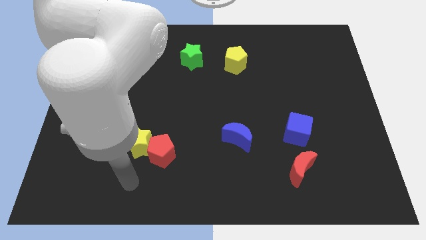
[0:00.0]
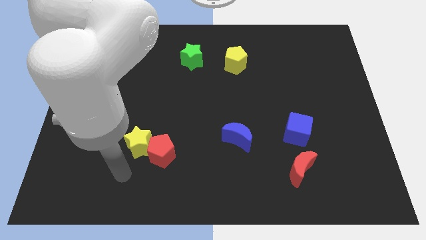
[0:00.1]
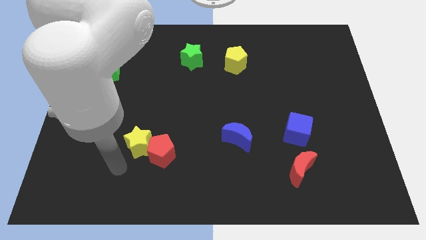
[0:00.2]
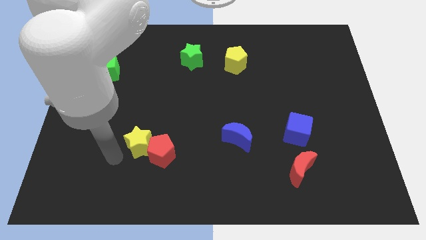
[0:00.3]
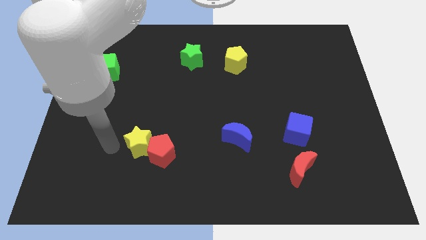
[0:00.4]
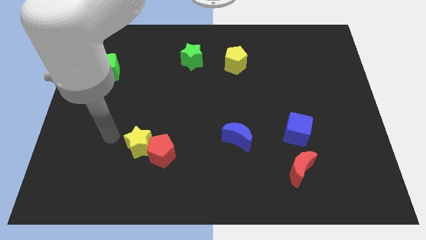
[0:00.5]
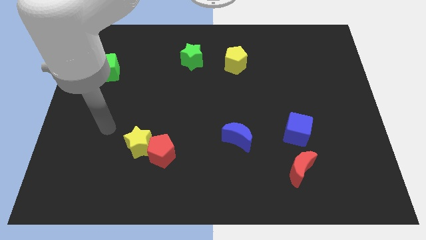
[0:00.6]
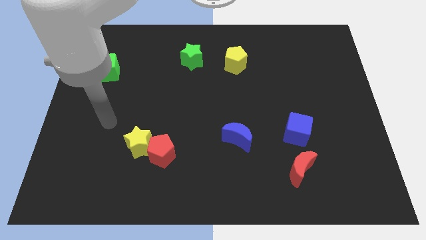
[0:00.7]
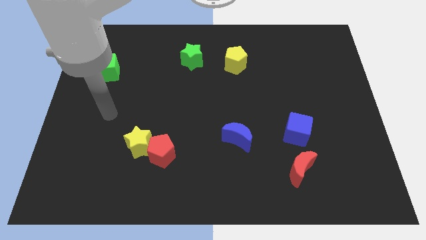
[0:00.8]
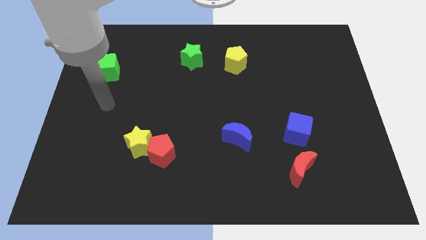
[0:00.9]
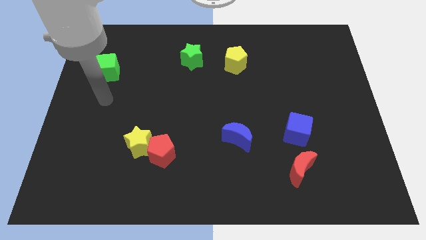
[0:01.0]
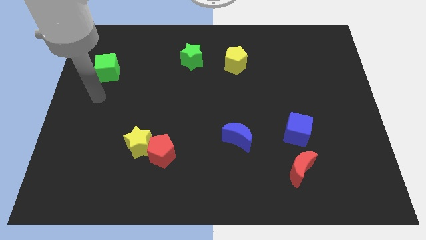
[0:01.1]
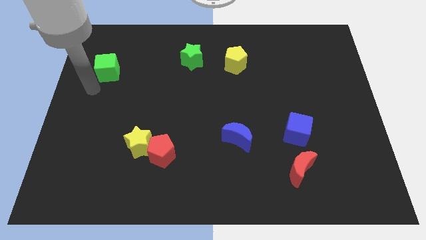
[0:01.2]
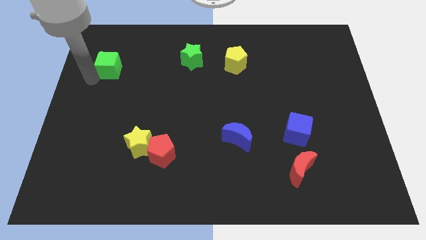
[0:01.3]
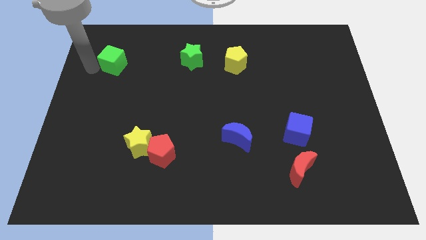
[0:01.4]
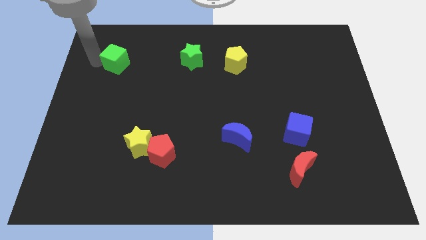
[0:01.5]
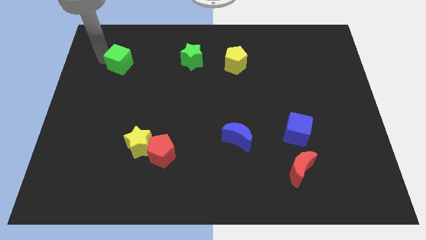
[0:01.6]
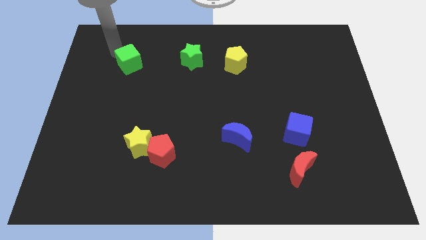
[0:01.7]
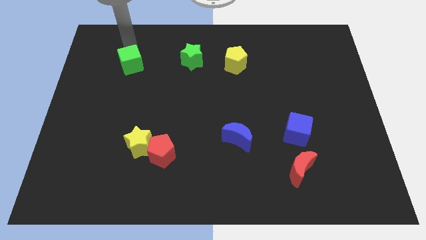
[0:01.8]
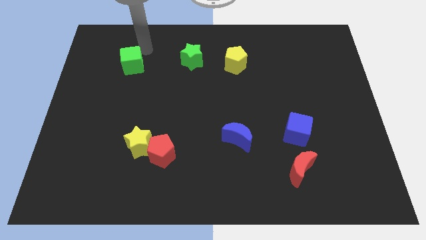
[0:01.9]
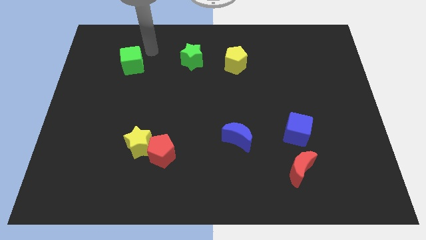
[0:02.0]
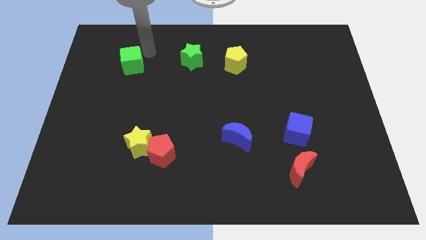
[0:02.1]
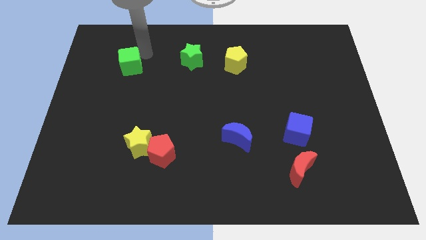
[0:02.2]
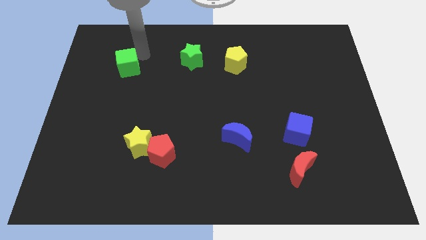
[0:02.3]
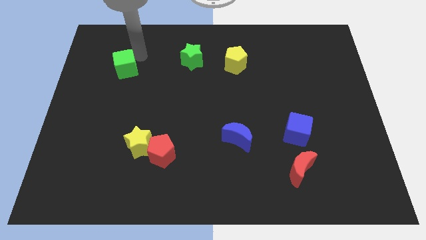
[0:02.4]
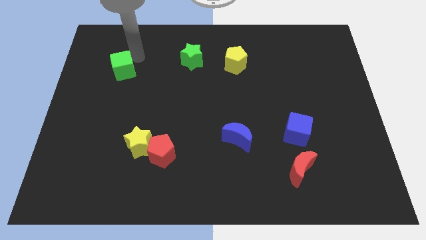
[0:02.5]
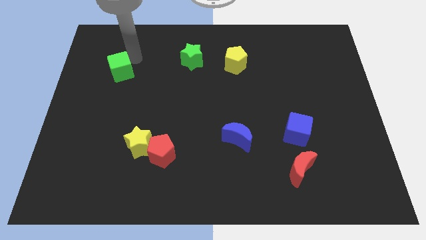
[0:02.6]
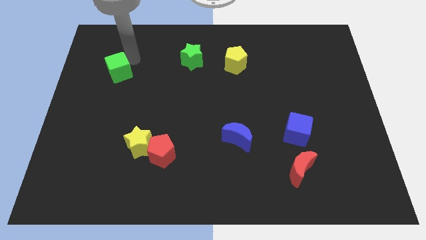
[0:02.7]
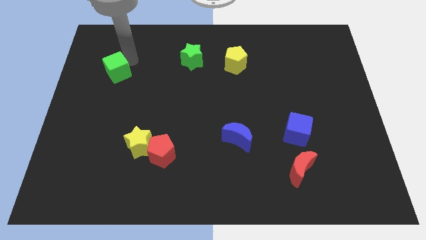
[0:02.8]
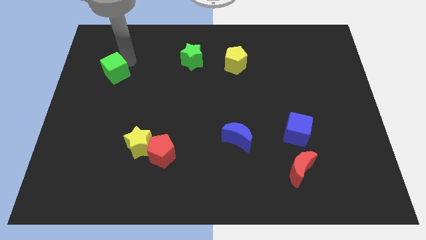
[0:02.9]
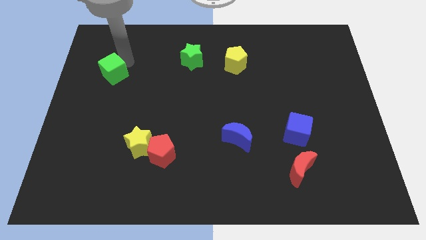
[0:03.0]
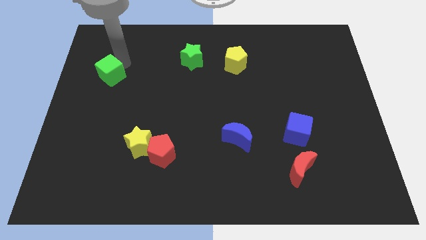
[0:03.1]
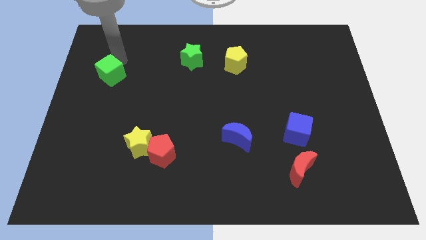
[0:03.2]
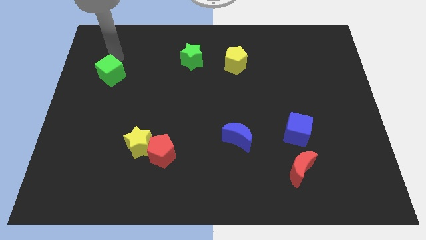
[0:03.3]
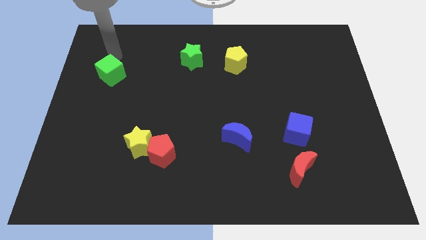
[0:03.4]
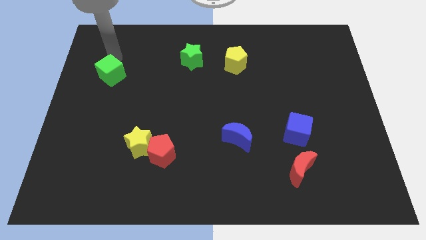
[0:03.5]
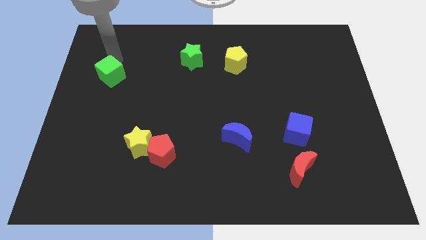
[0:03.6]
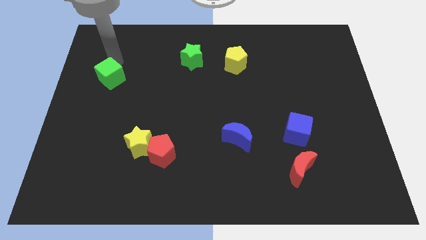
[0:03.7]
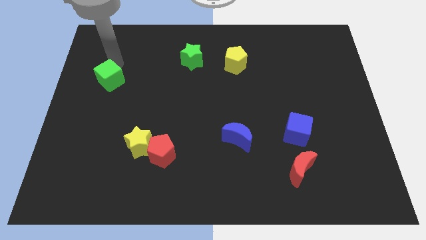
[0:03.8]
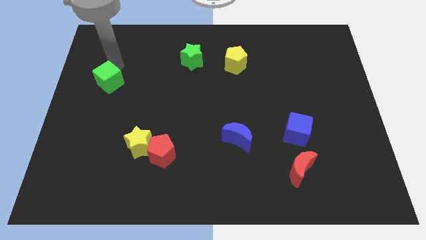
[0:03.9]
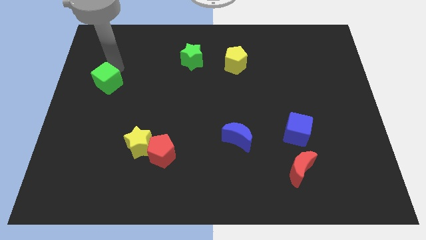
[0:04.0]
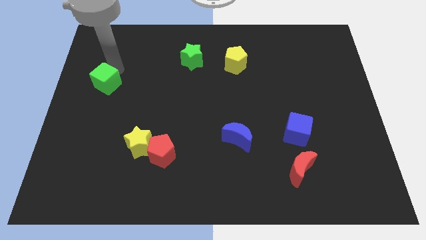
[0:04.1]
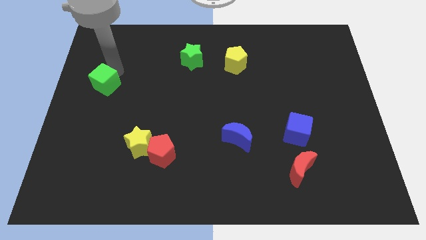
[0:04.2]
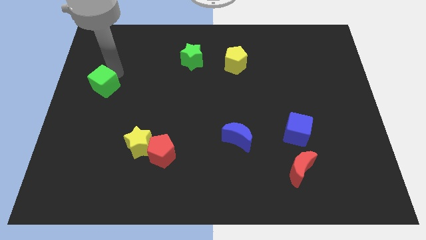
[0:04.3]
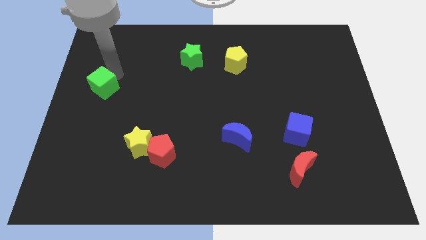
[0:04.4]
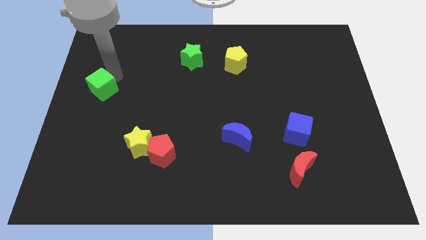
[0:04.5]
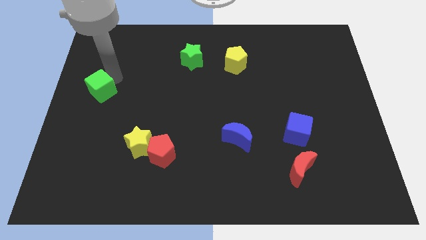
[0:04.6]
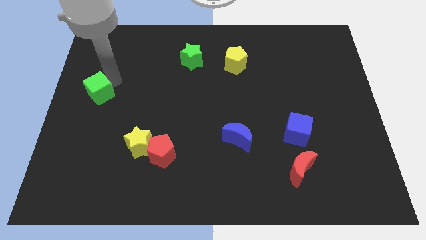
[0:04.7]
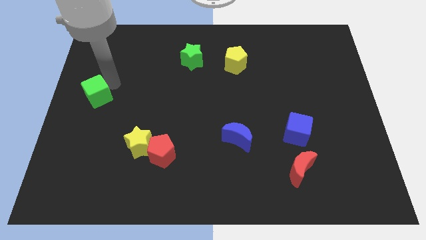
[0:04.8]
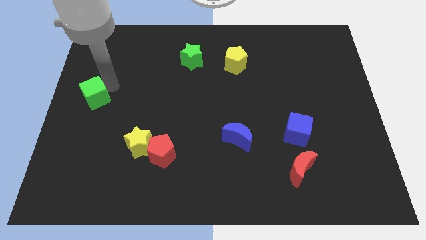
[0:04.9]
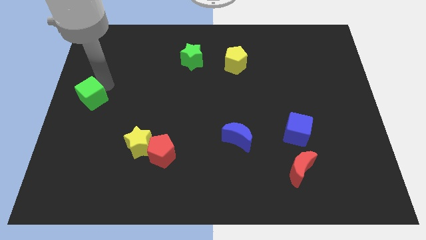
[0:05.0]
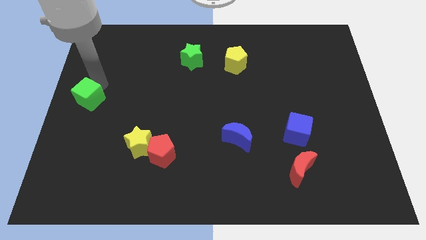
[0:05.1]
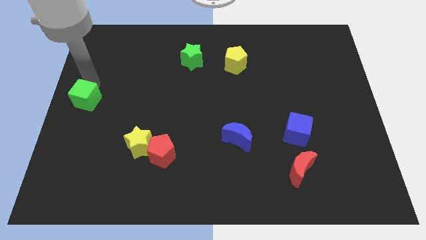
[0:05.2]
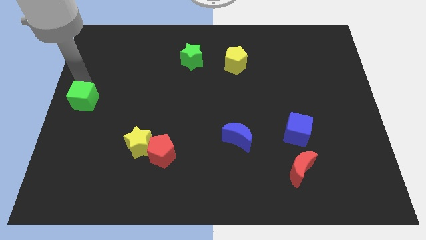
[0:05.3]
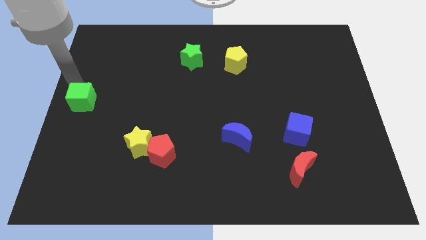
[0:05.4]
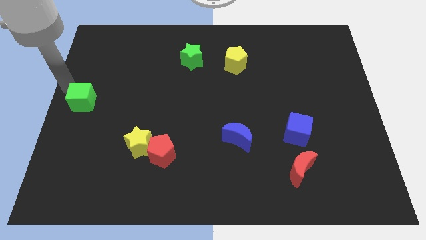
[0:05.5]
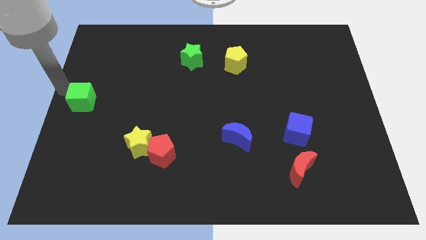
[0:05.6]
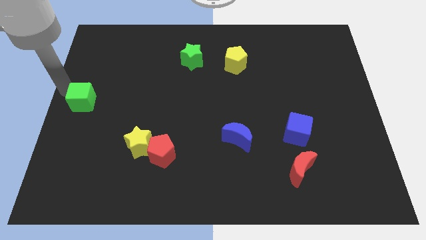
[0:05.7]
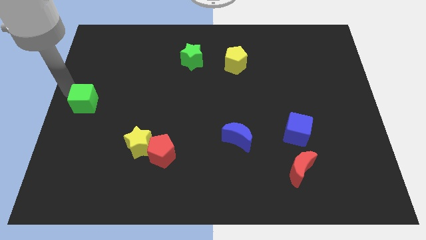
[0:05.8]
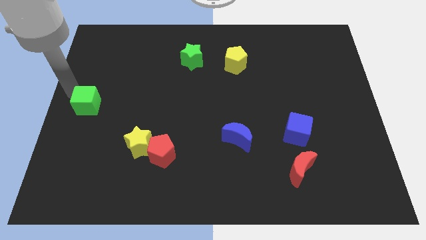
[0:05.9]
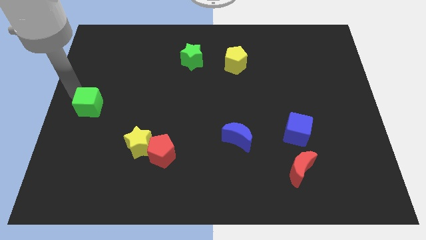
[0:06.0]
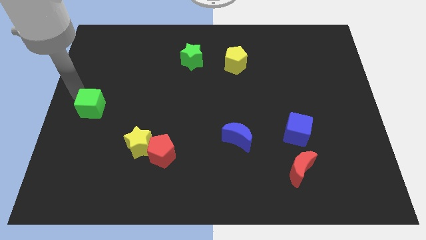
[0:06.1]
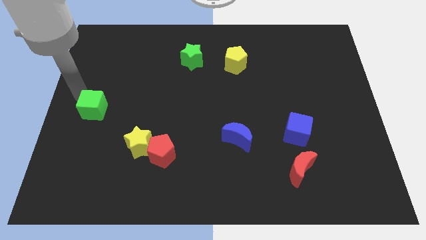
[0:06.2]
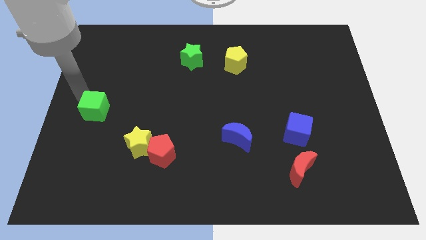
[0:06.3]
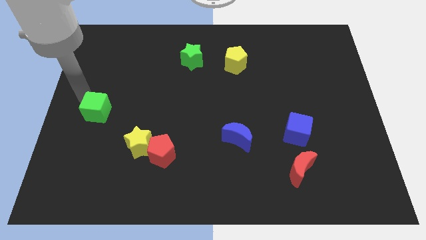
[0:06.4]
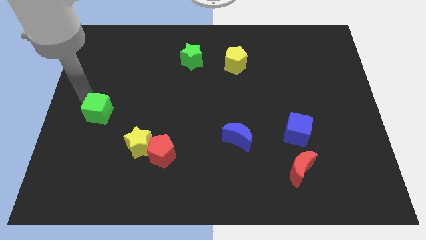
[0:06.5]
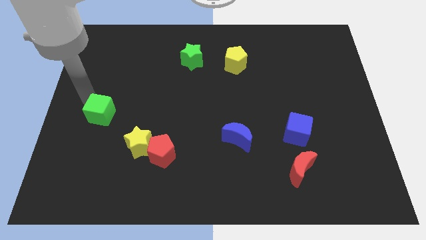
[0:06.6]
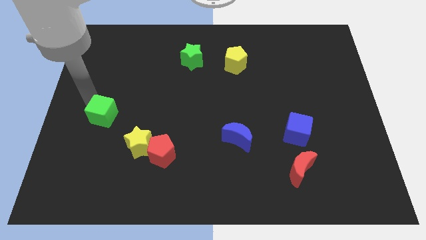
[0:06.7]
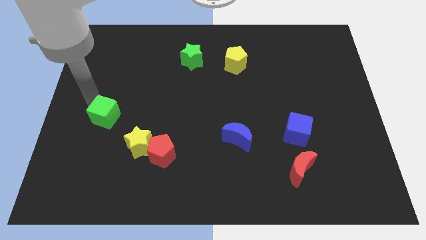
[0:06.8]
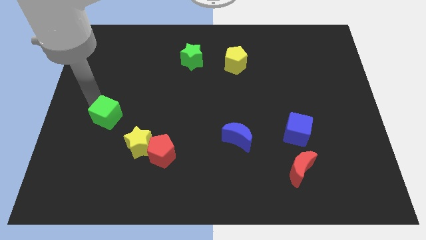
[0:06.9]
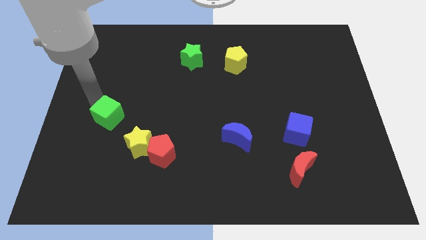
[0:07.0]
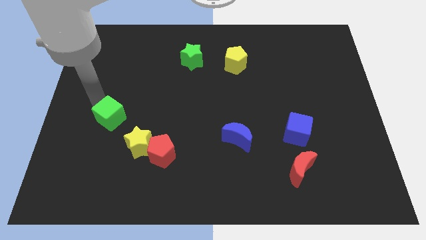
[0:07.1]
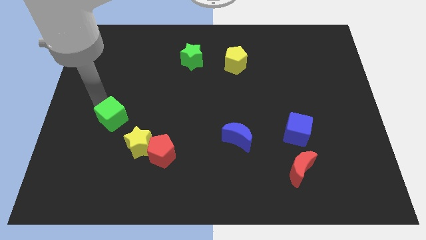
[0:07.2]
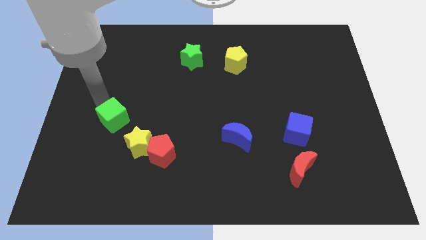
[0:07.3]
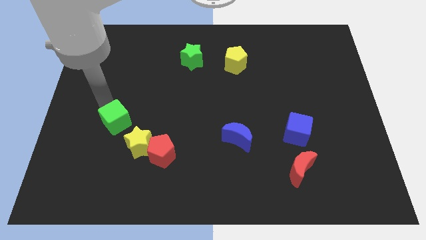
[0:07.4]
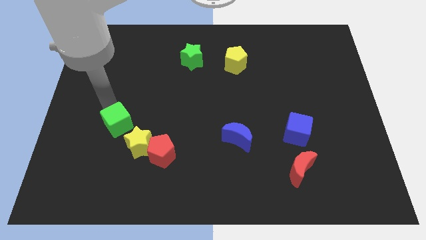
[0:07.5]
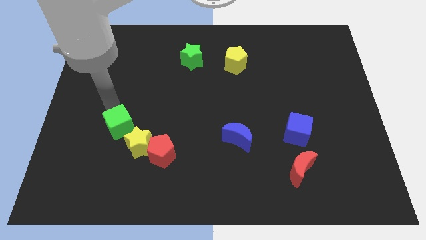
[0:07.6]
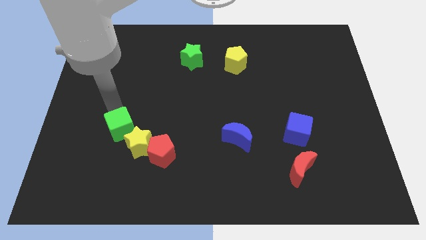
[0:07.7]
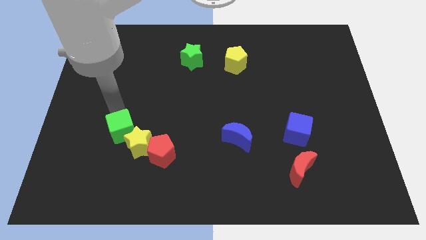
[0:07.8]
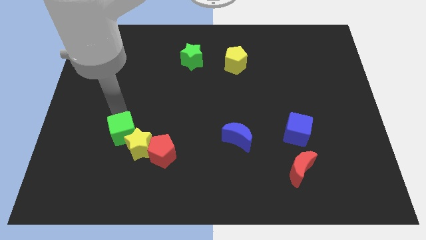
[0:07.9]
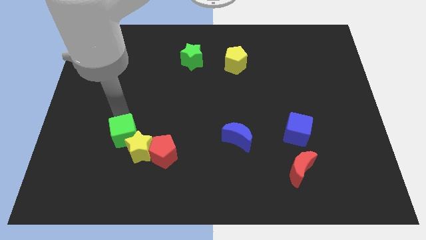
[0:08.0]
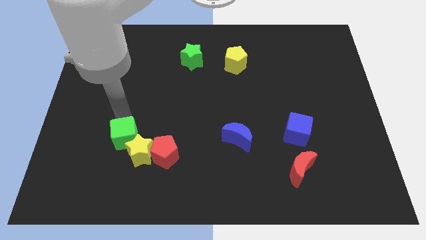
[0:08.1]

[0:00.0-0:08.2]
slide the green cube to the left of the red pentagon
